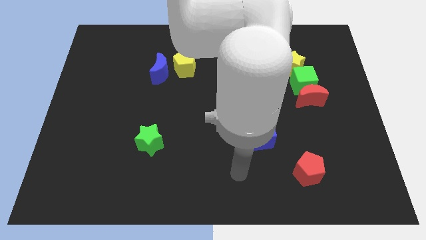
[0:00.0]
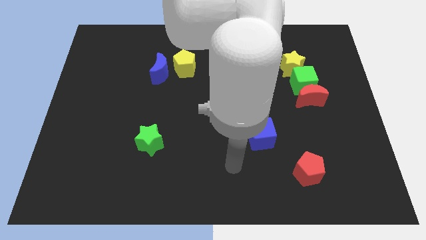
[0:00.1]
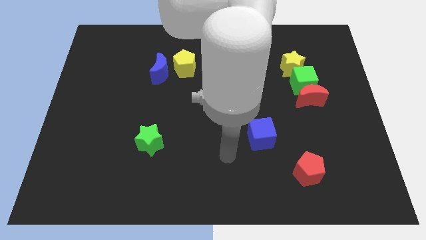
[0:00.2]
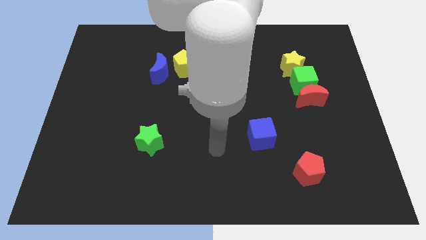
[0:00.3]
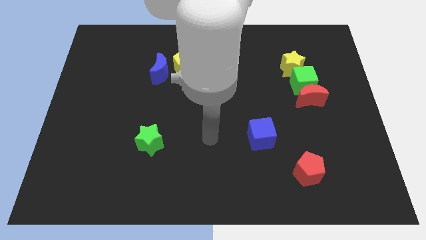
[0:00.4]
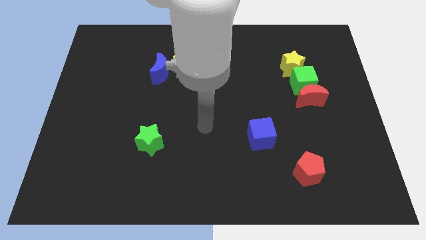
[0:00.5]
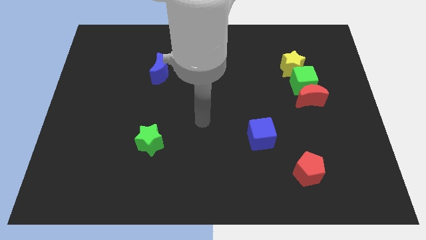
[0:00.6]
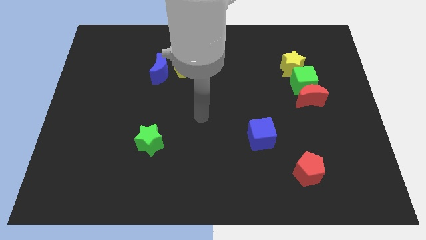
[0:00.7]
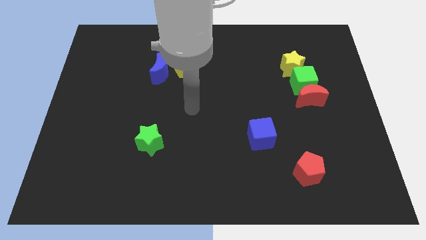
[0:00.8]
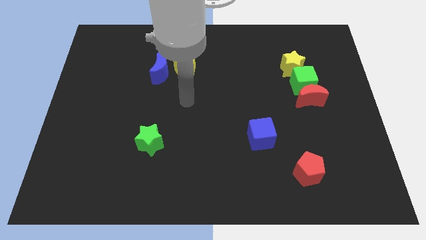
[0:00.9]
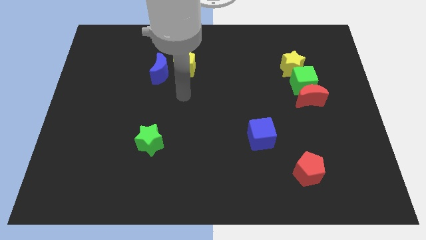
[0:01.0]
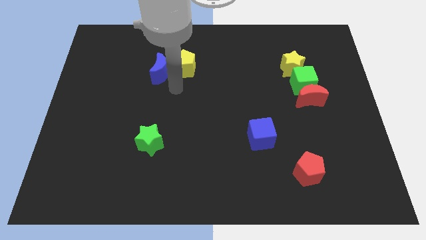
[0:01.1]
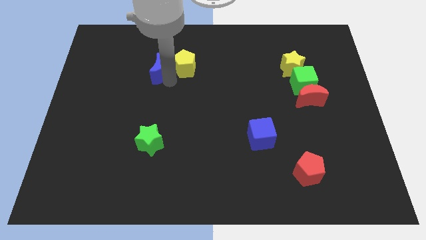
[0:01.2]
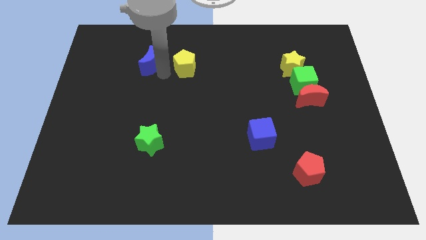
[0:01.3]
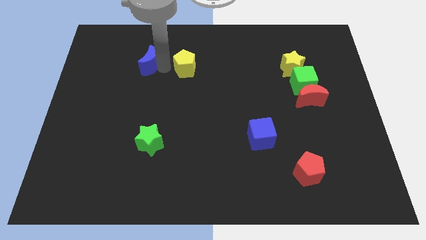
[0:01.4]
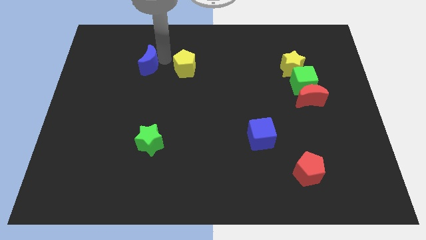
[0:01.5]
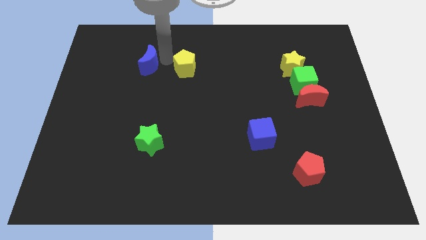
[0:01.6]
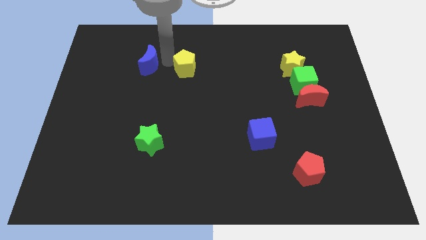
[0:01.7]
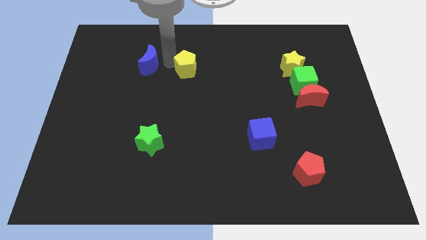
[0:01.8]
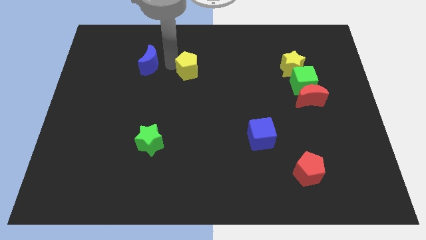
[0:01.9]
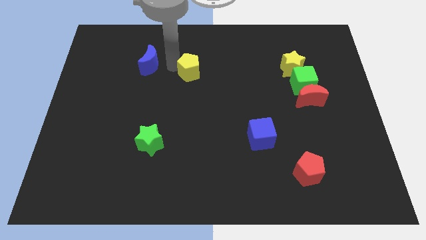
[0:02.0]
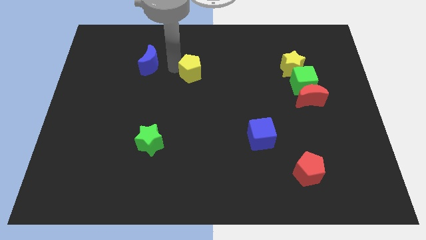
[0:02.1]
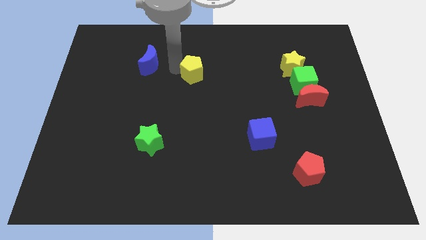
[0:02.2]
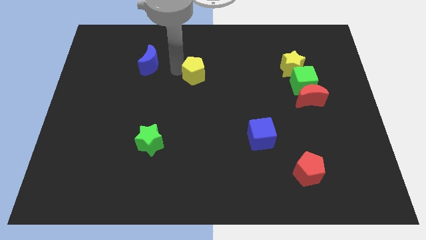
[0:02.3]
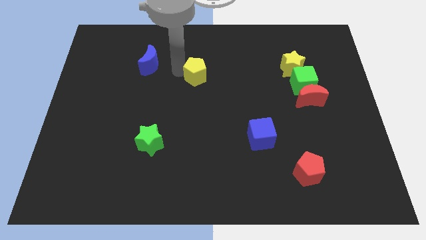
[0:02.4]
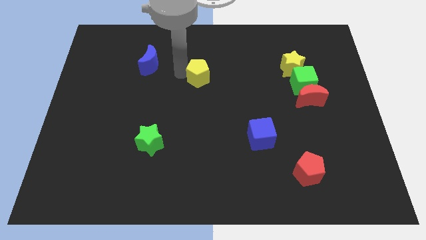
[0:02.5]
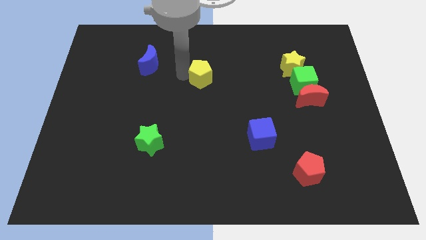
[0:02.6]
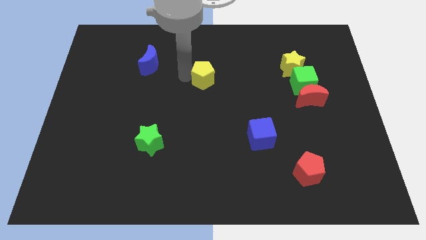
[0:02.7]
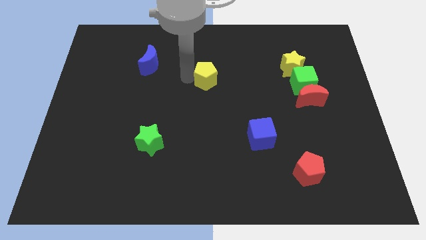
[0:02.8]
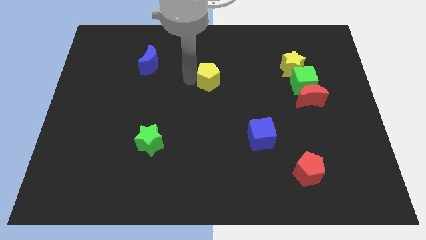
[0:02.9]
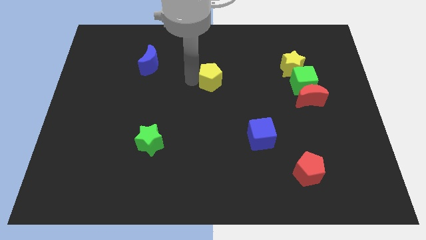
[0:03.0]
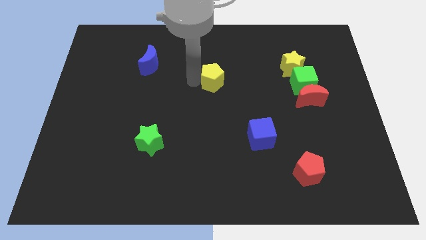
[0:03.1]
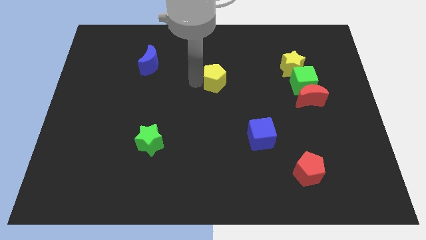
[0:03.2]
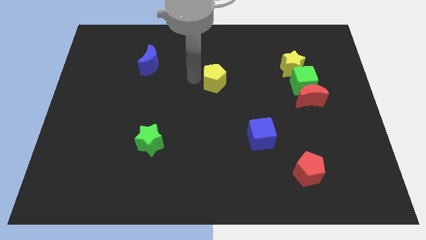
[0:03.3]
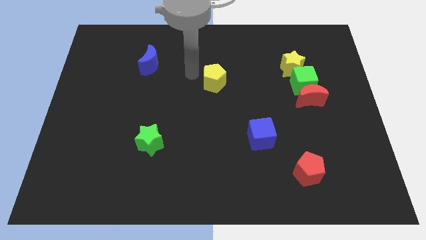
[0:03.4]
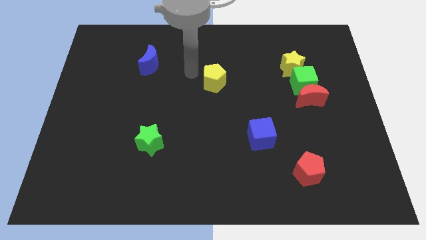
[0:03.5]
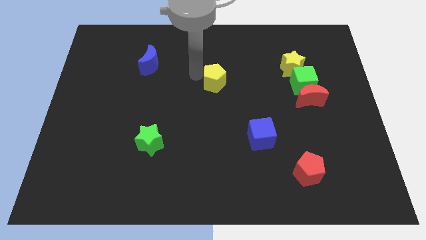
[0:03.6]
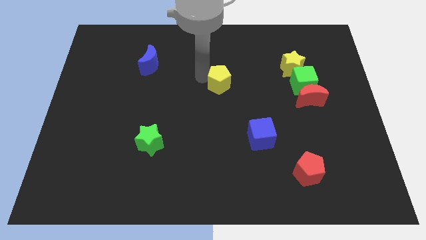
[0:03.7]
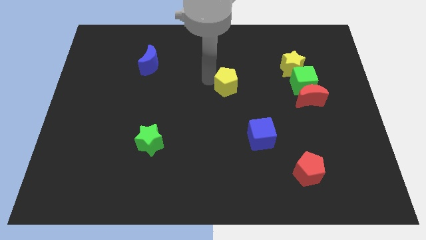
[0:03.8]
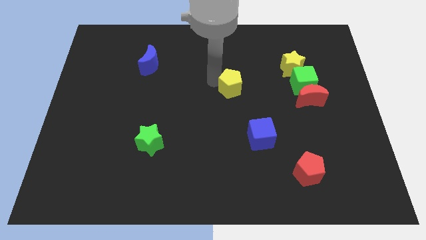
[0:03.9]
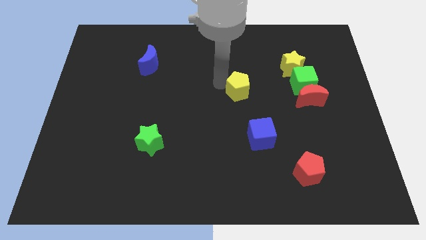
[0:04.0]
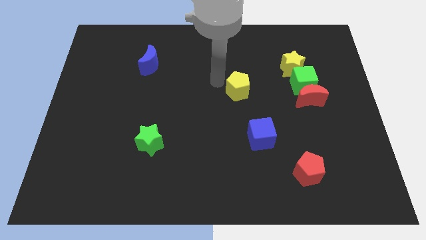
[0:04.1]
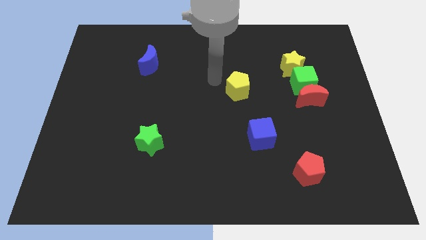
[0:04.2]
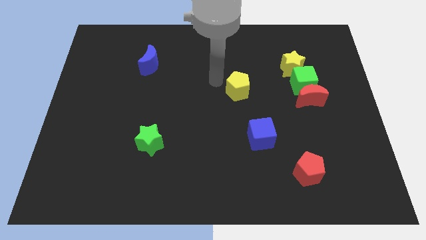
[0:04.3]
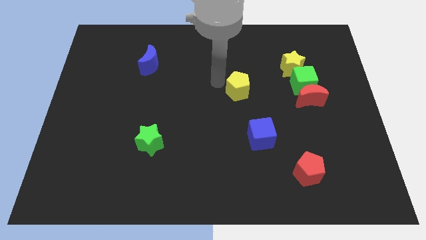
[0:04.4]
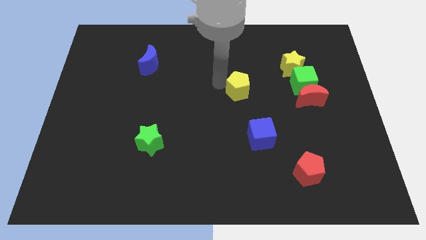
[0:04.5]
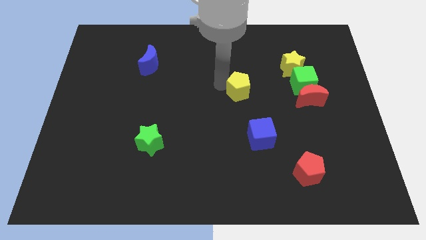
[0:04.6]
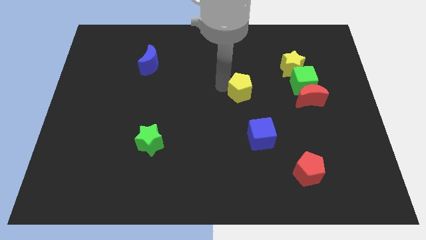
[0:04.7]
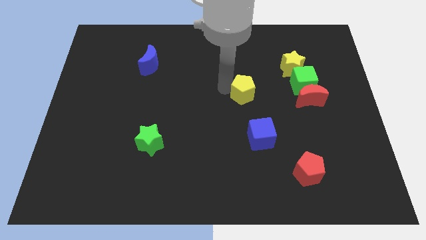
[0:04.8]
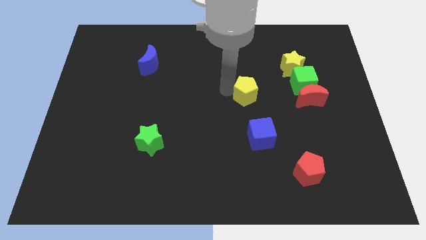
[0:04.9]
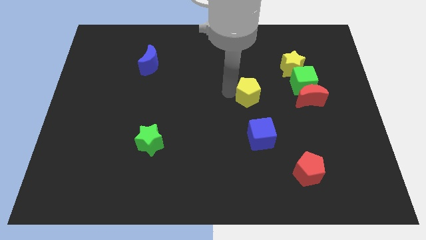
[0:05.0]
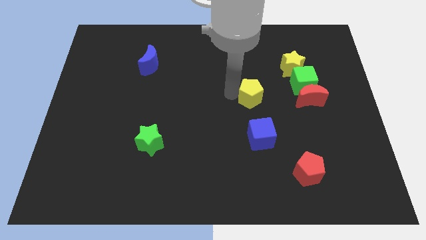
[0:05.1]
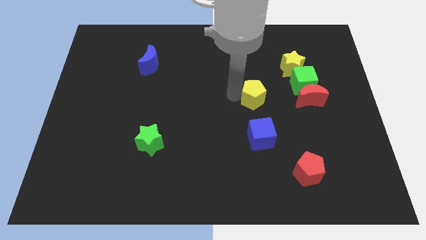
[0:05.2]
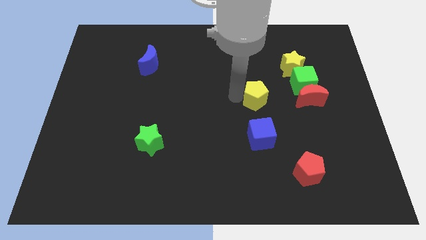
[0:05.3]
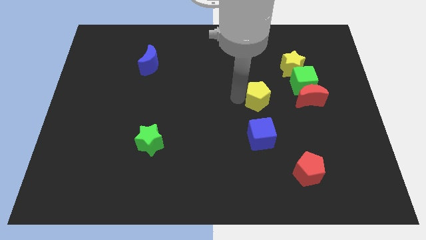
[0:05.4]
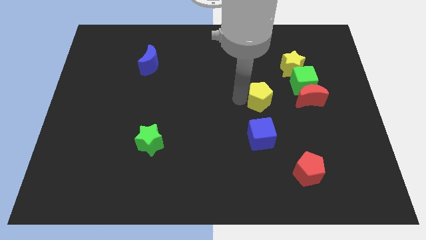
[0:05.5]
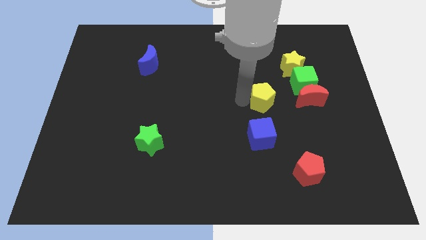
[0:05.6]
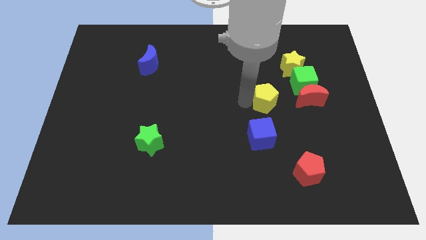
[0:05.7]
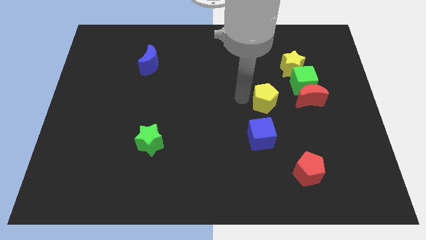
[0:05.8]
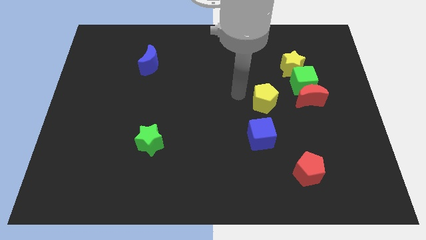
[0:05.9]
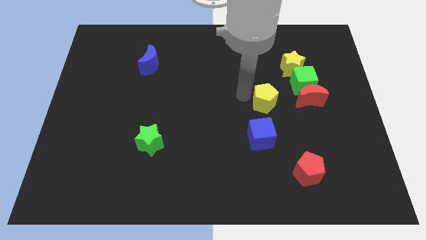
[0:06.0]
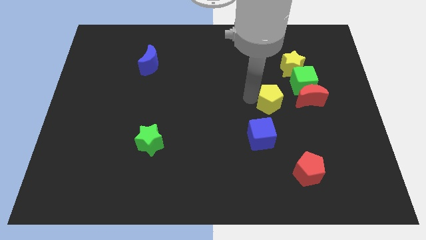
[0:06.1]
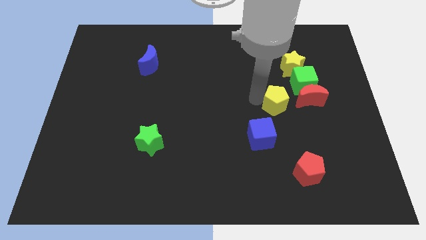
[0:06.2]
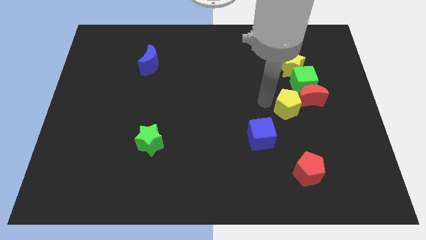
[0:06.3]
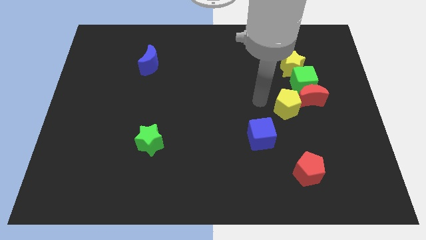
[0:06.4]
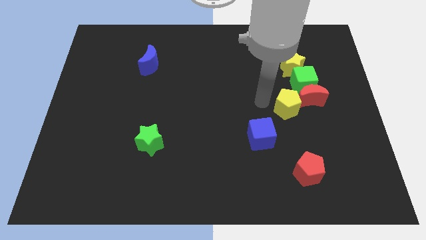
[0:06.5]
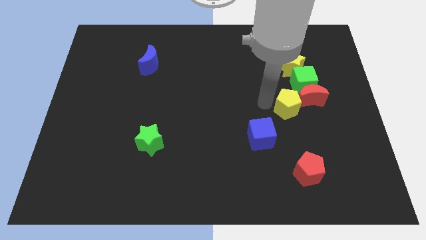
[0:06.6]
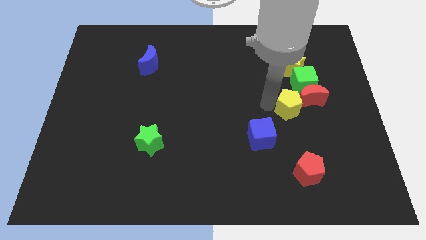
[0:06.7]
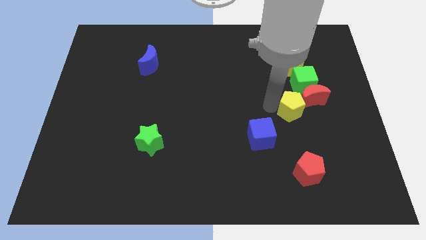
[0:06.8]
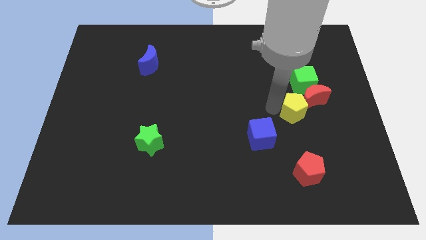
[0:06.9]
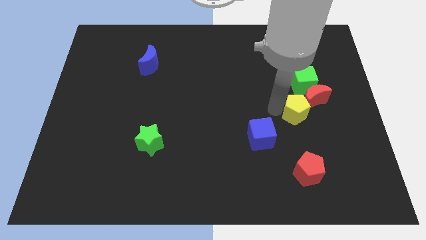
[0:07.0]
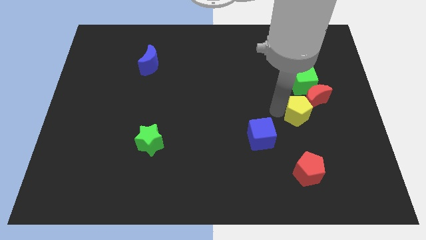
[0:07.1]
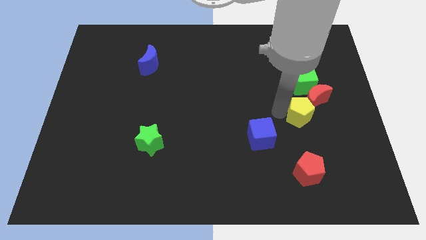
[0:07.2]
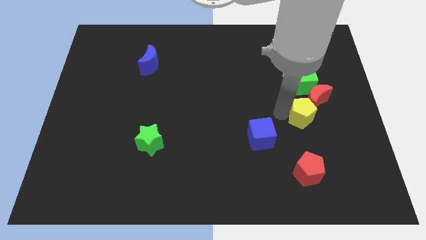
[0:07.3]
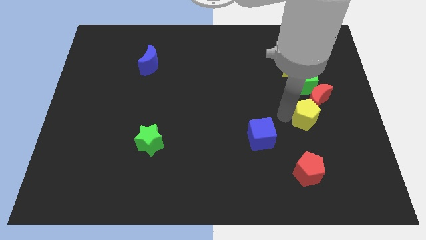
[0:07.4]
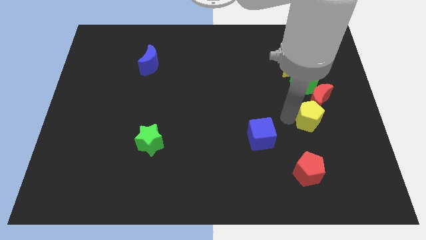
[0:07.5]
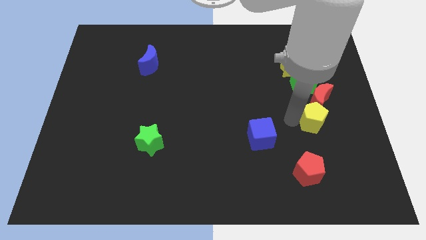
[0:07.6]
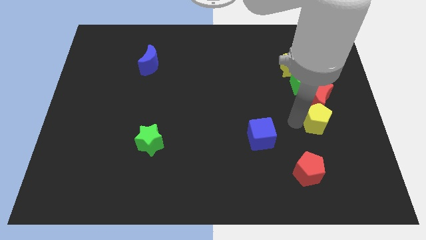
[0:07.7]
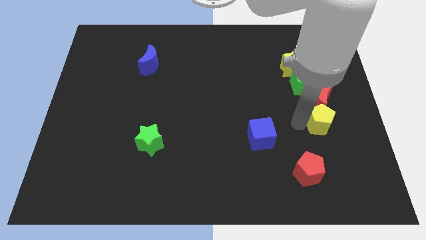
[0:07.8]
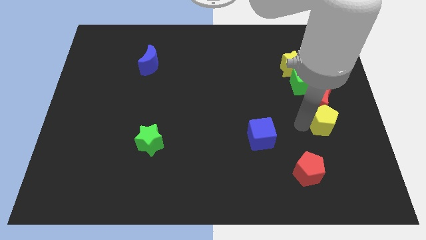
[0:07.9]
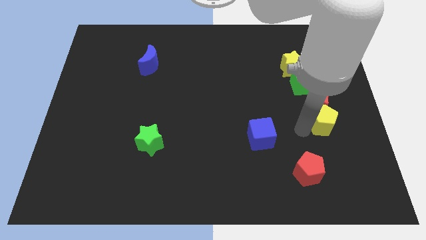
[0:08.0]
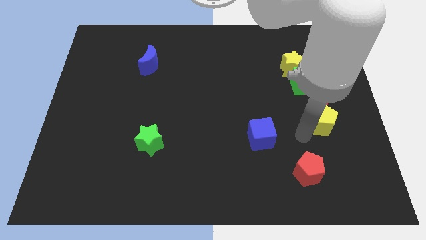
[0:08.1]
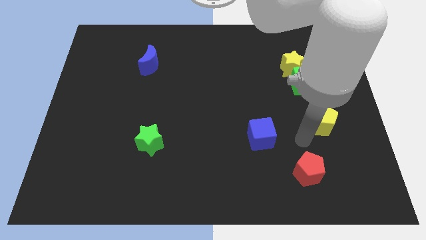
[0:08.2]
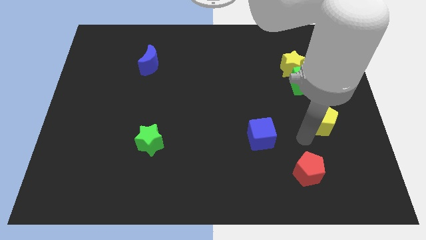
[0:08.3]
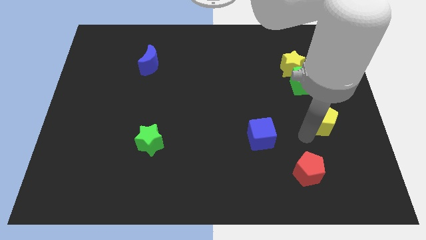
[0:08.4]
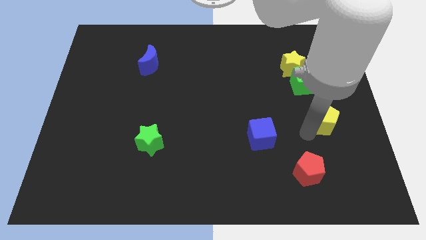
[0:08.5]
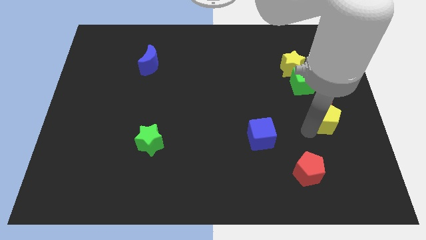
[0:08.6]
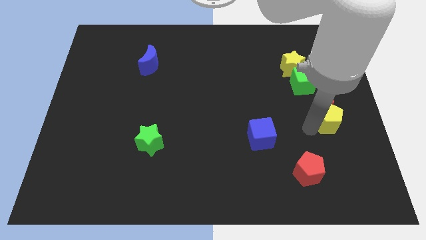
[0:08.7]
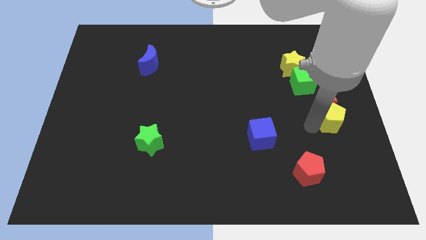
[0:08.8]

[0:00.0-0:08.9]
move the yellow pentagon to the right side
